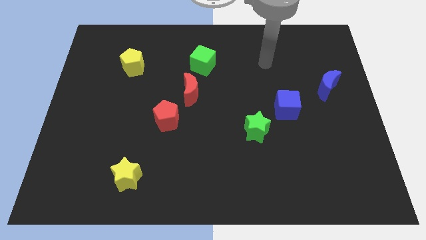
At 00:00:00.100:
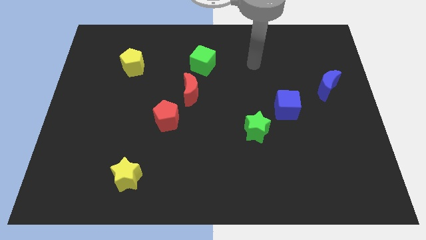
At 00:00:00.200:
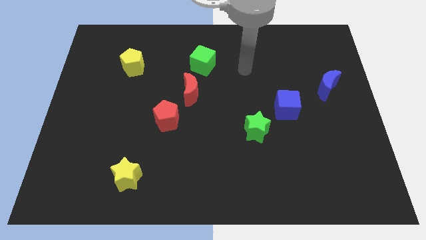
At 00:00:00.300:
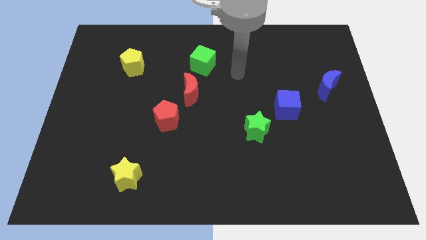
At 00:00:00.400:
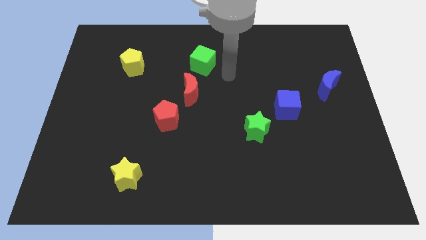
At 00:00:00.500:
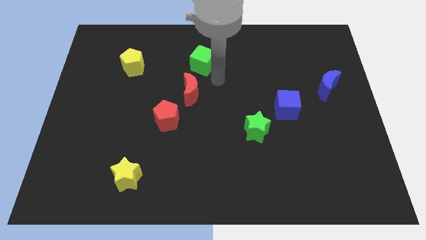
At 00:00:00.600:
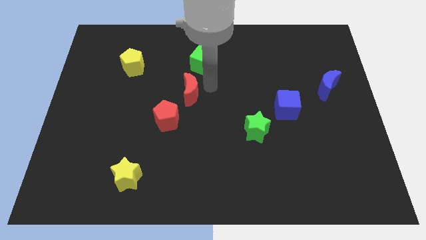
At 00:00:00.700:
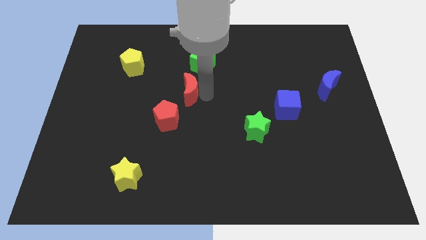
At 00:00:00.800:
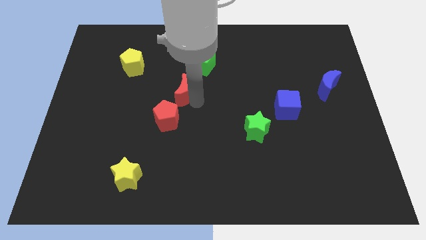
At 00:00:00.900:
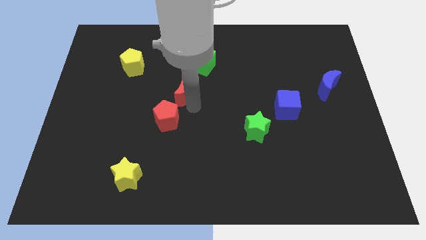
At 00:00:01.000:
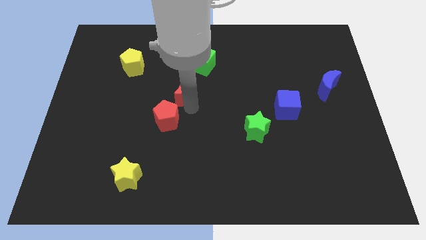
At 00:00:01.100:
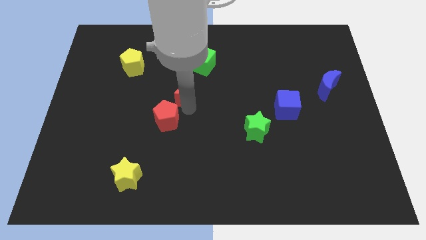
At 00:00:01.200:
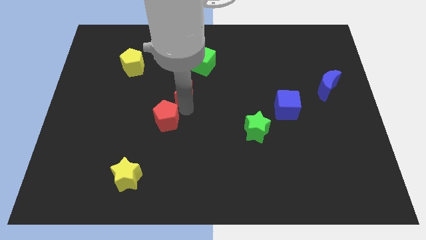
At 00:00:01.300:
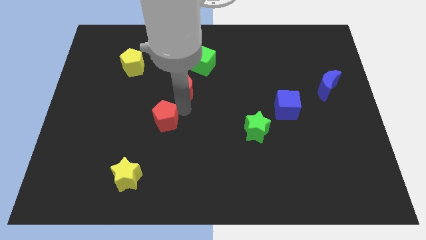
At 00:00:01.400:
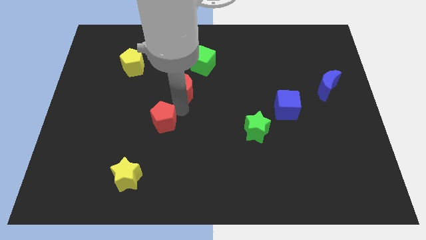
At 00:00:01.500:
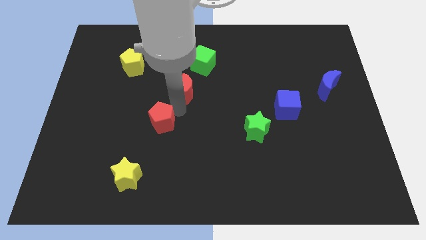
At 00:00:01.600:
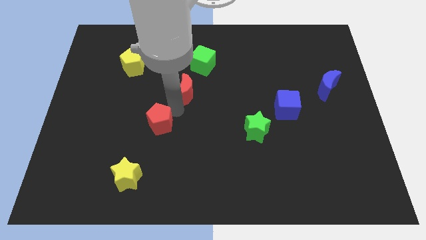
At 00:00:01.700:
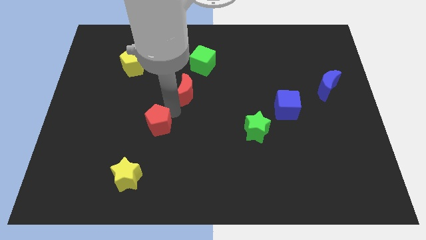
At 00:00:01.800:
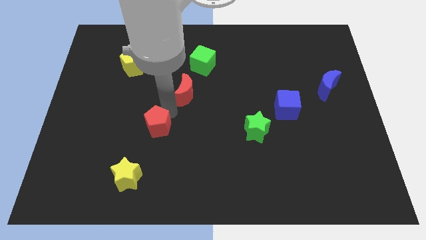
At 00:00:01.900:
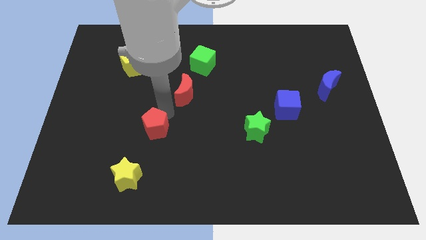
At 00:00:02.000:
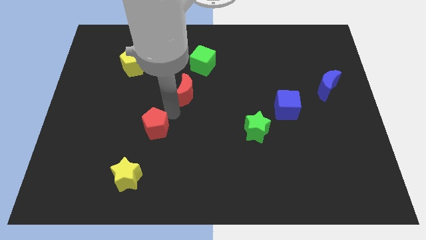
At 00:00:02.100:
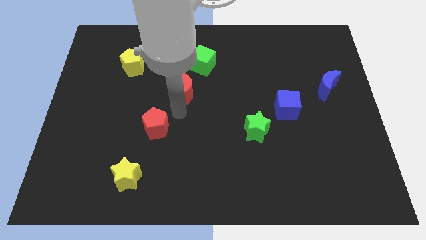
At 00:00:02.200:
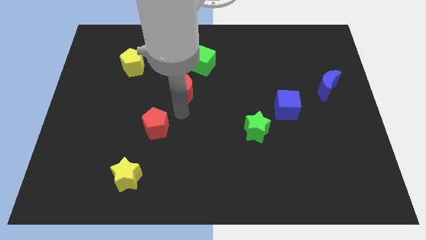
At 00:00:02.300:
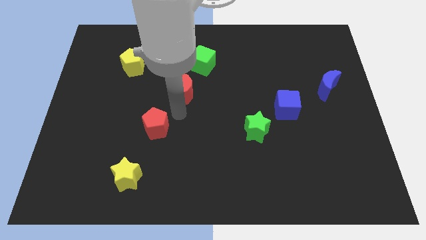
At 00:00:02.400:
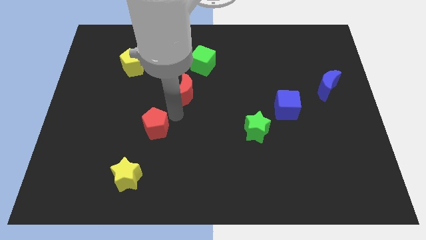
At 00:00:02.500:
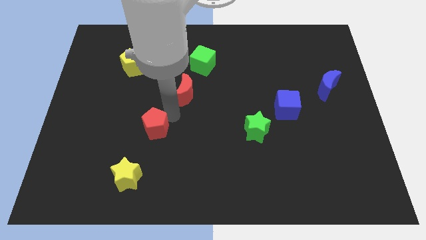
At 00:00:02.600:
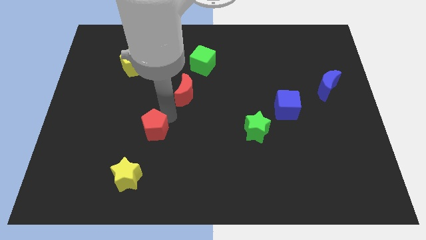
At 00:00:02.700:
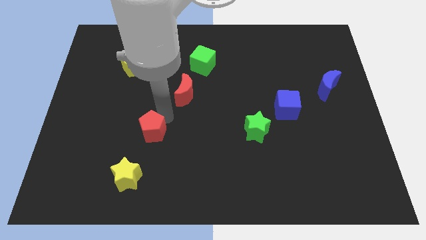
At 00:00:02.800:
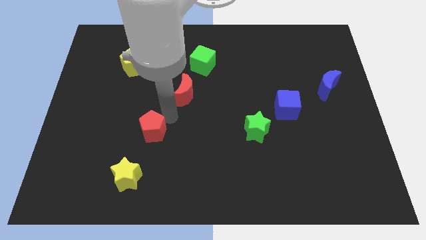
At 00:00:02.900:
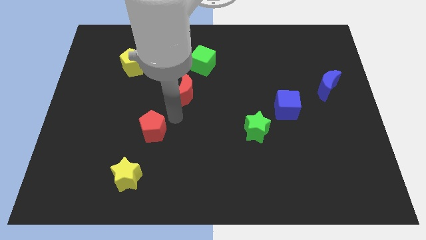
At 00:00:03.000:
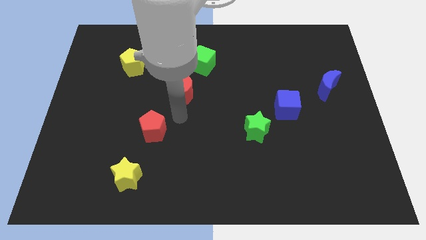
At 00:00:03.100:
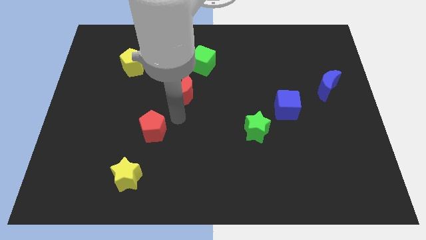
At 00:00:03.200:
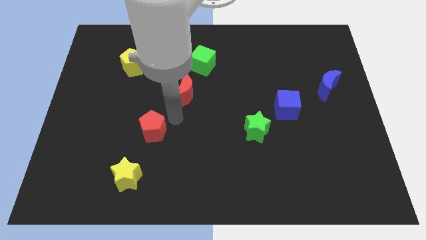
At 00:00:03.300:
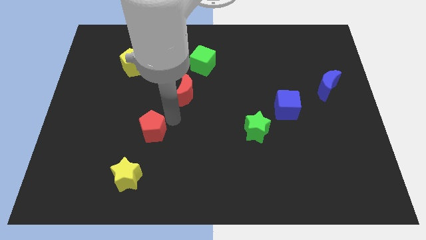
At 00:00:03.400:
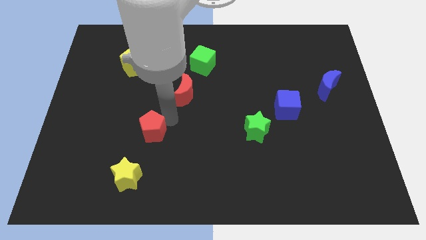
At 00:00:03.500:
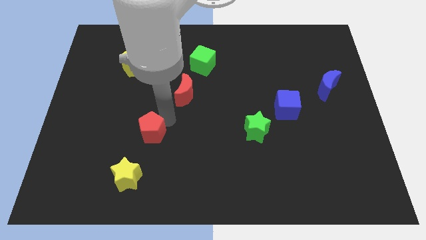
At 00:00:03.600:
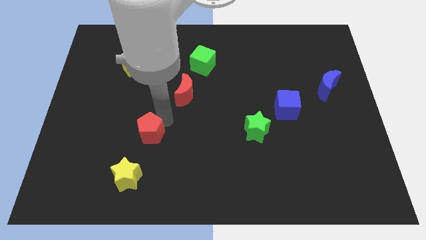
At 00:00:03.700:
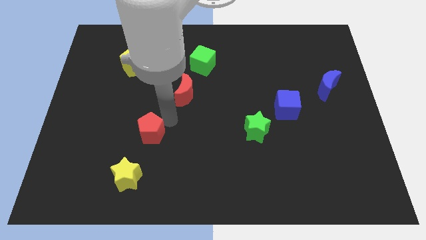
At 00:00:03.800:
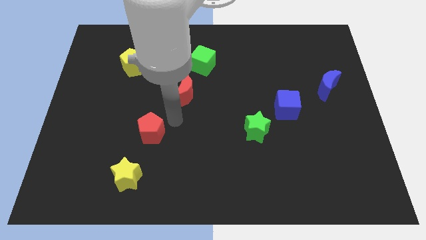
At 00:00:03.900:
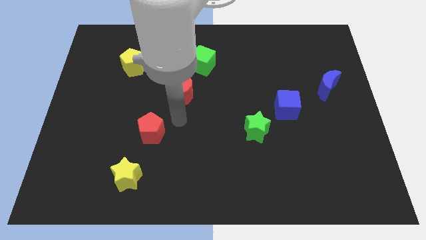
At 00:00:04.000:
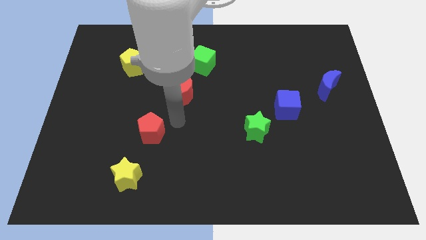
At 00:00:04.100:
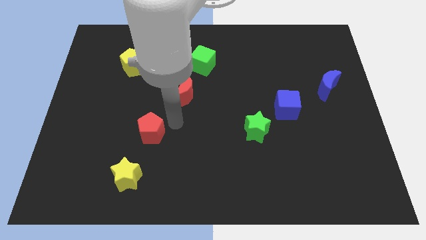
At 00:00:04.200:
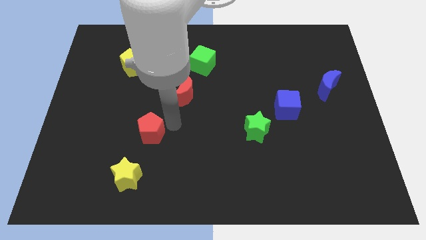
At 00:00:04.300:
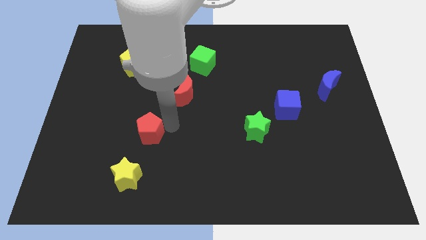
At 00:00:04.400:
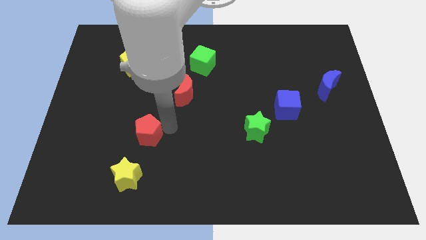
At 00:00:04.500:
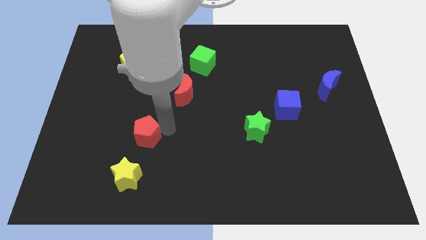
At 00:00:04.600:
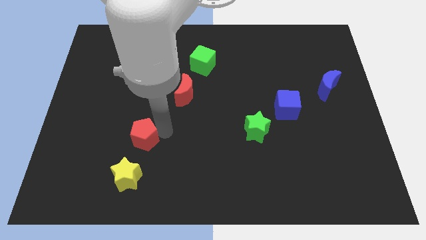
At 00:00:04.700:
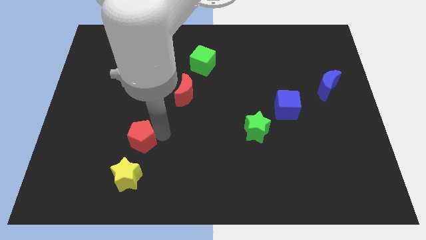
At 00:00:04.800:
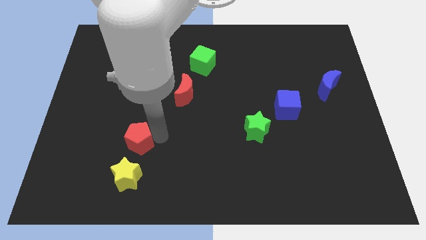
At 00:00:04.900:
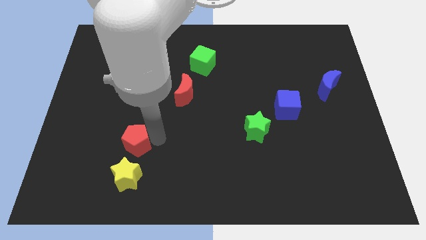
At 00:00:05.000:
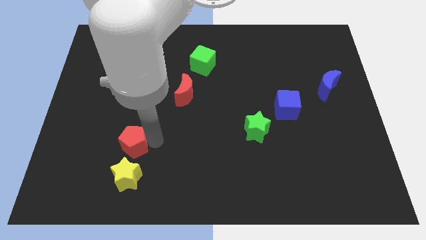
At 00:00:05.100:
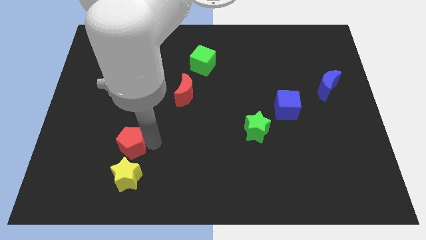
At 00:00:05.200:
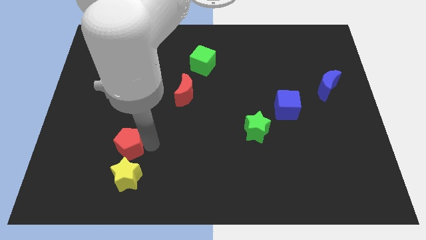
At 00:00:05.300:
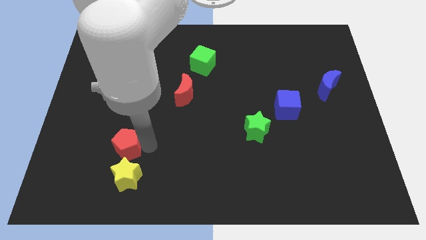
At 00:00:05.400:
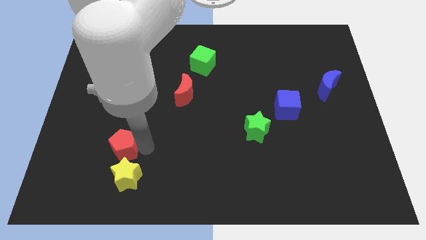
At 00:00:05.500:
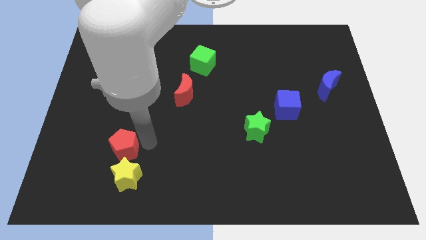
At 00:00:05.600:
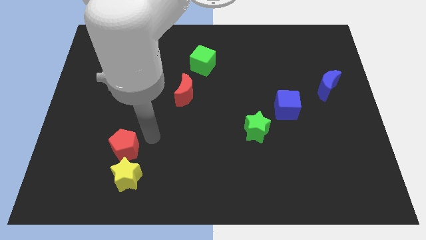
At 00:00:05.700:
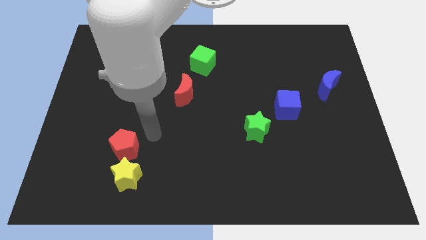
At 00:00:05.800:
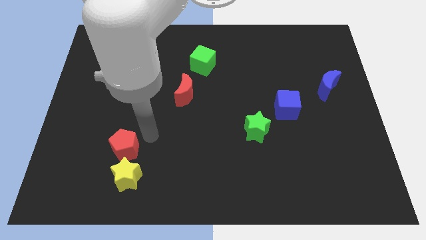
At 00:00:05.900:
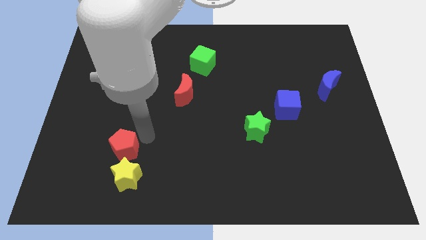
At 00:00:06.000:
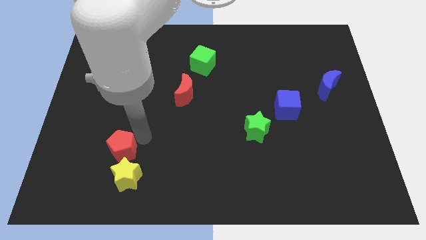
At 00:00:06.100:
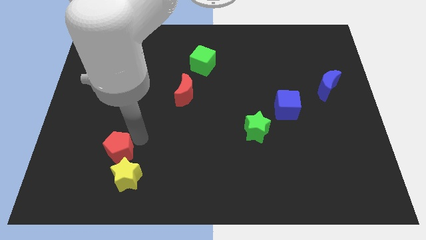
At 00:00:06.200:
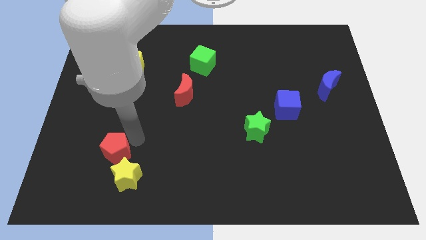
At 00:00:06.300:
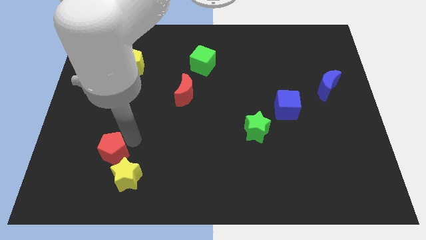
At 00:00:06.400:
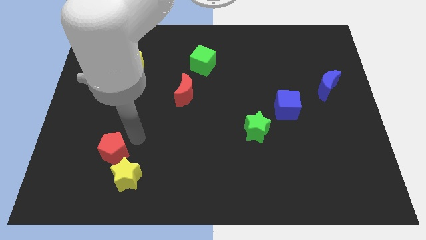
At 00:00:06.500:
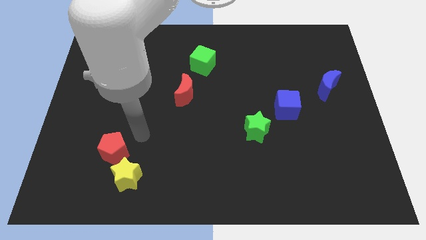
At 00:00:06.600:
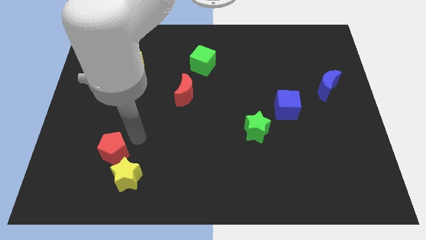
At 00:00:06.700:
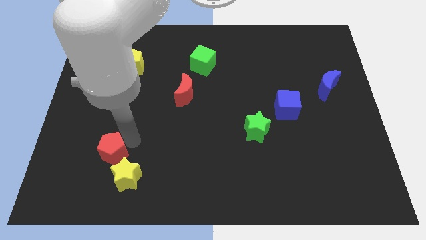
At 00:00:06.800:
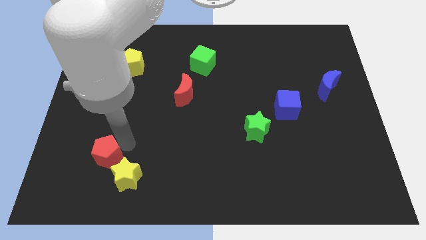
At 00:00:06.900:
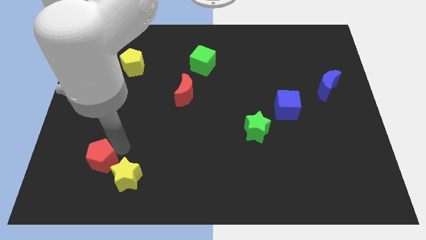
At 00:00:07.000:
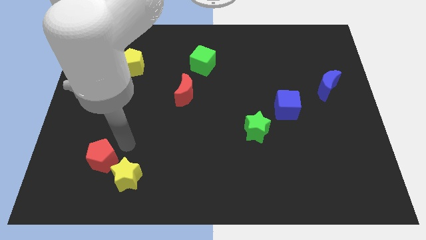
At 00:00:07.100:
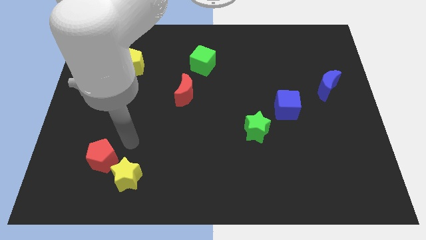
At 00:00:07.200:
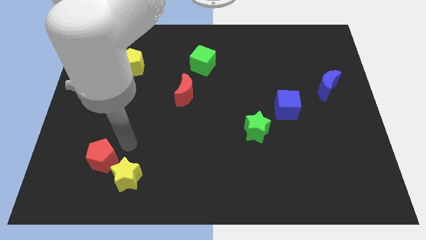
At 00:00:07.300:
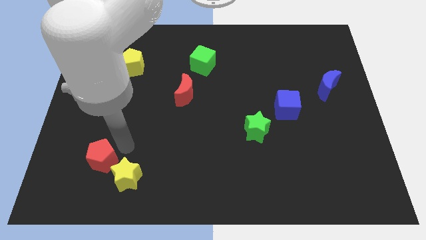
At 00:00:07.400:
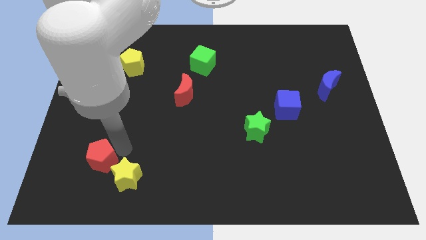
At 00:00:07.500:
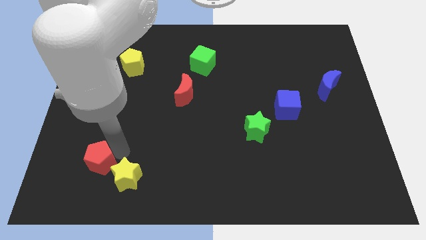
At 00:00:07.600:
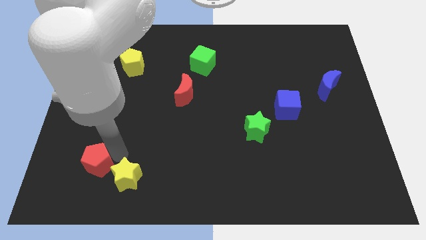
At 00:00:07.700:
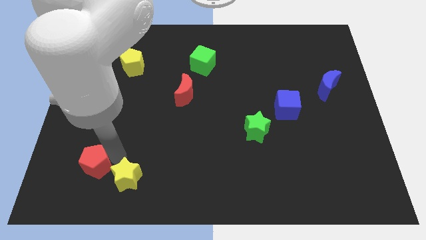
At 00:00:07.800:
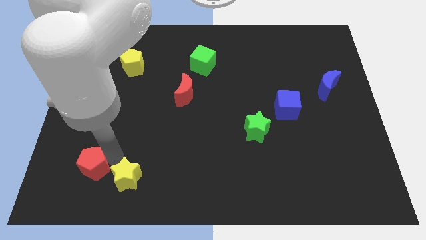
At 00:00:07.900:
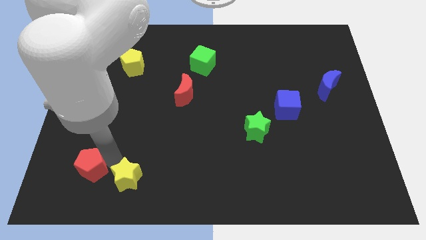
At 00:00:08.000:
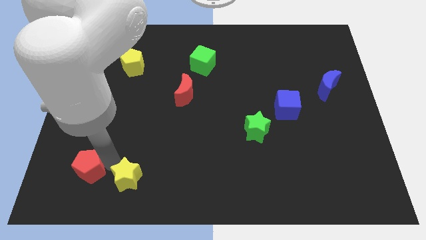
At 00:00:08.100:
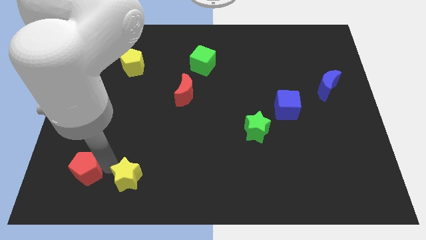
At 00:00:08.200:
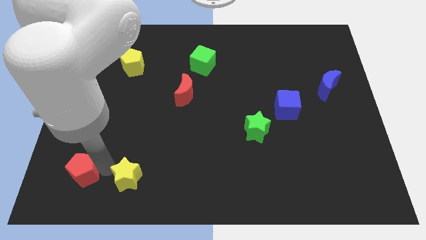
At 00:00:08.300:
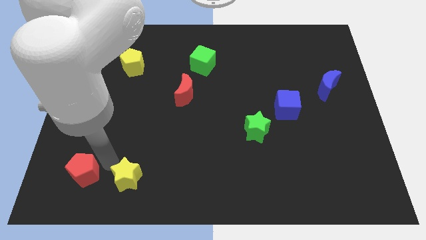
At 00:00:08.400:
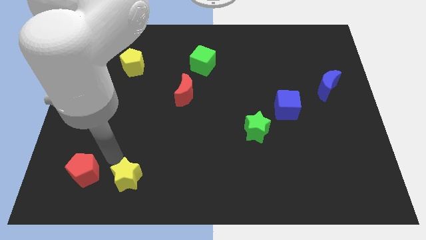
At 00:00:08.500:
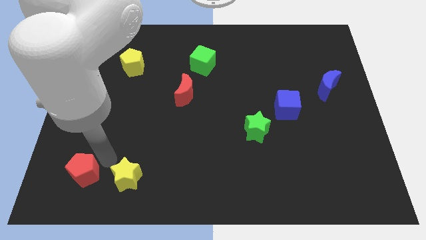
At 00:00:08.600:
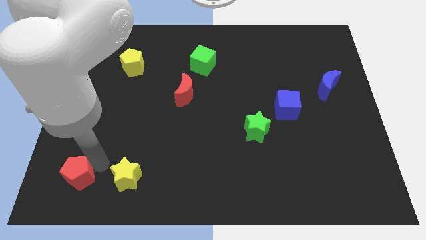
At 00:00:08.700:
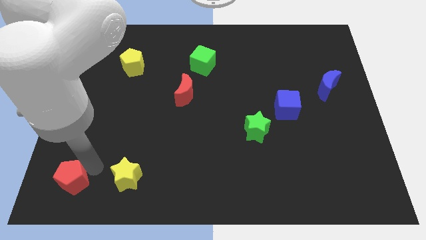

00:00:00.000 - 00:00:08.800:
put the red pentagon to the lower left corner
